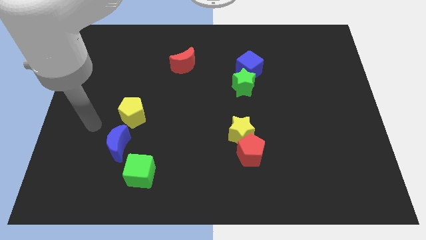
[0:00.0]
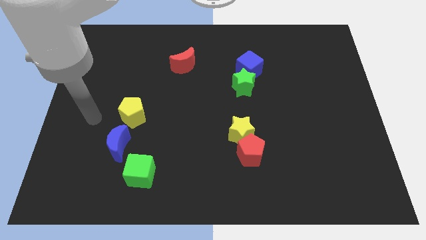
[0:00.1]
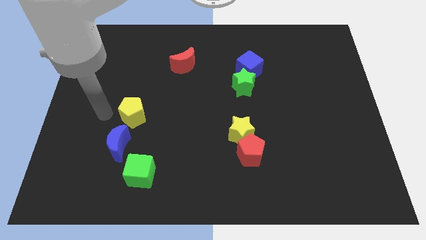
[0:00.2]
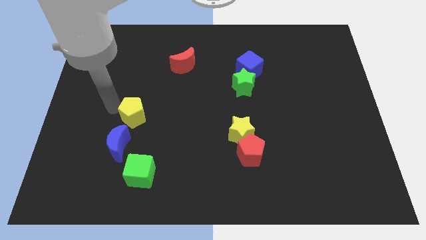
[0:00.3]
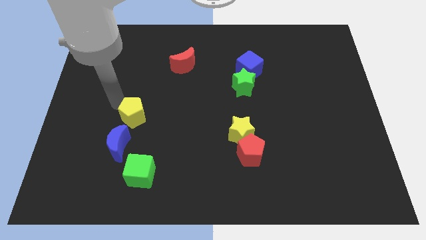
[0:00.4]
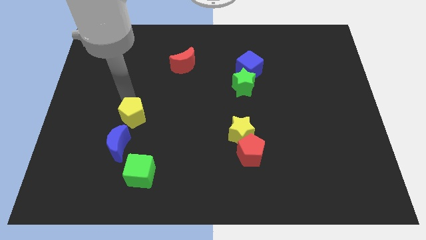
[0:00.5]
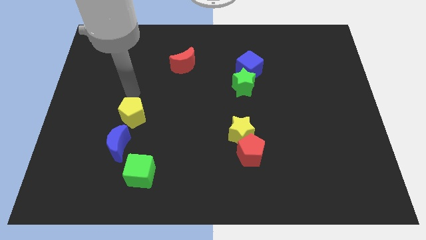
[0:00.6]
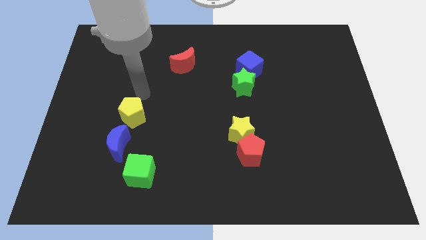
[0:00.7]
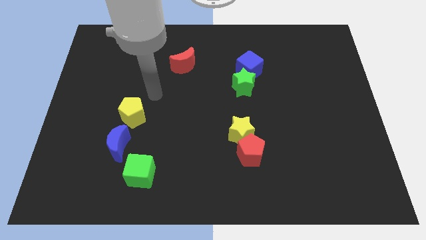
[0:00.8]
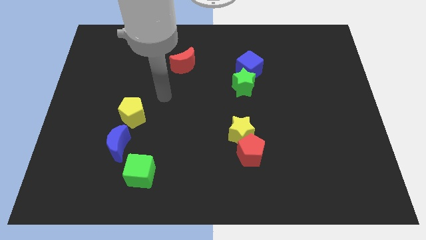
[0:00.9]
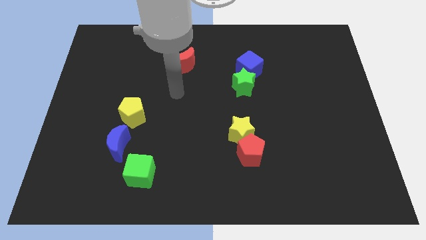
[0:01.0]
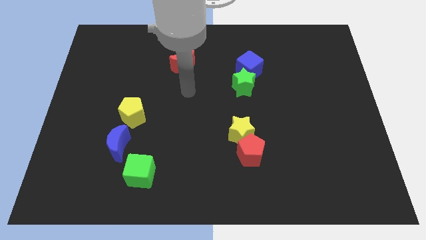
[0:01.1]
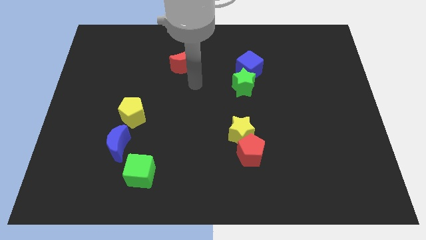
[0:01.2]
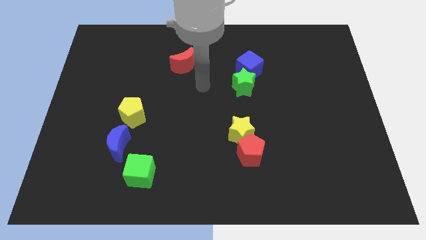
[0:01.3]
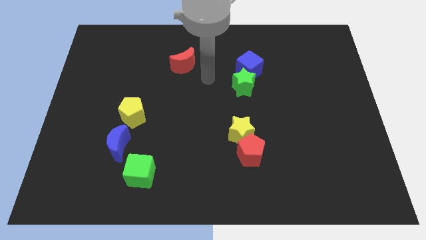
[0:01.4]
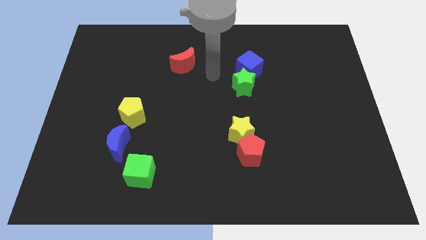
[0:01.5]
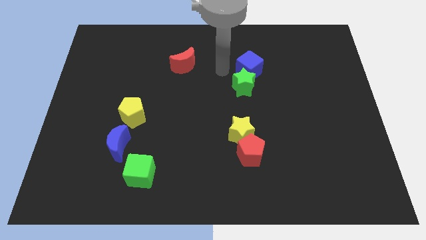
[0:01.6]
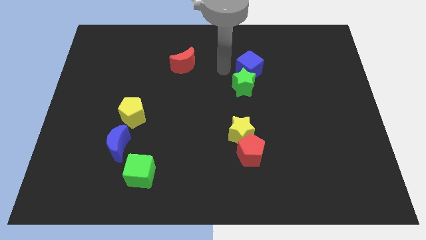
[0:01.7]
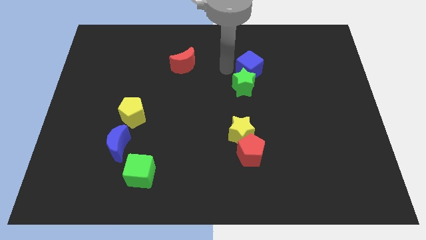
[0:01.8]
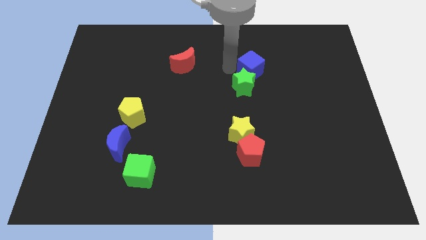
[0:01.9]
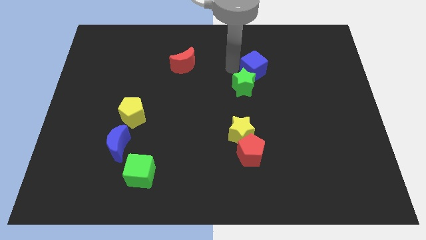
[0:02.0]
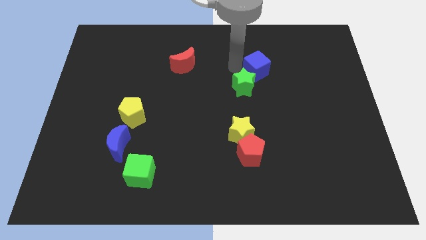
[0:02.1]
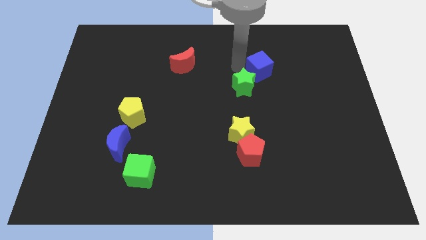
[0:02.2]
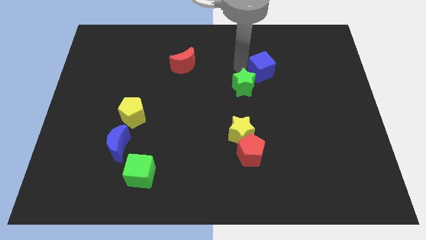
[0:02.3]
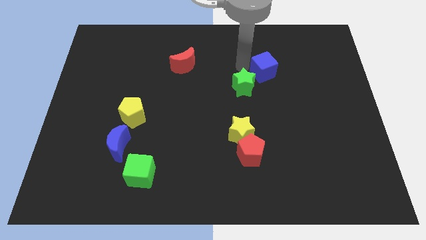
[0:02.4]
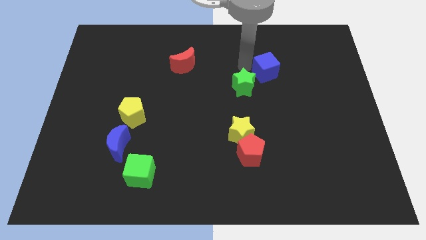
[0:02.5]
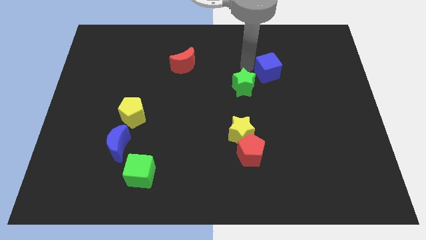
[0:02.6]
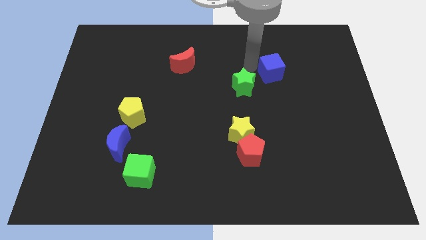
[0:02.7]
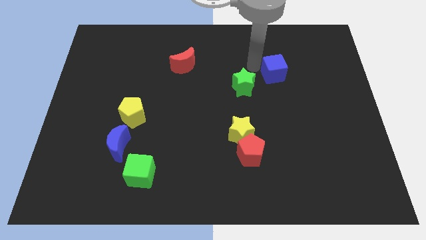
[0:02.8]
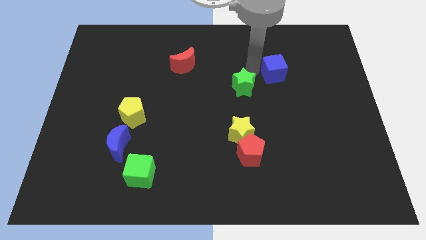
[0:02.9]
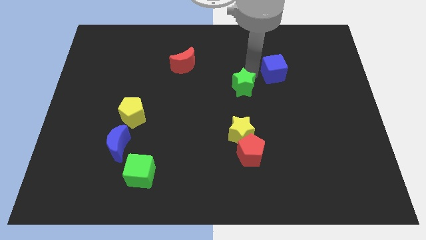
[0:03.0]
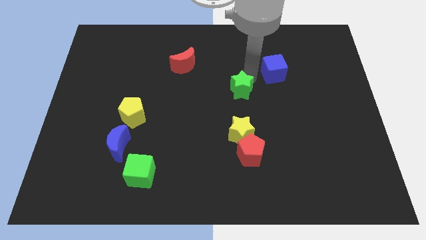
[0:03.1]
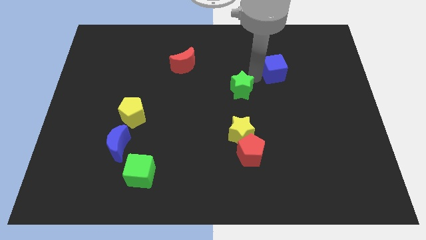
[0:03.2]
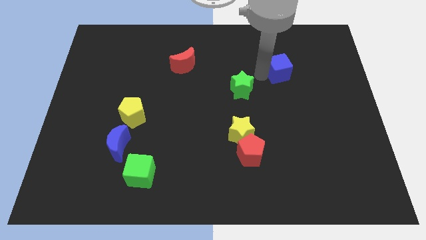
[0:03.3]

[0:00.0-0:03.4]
slightly push the blue cube to the right

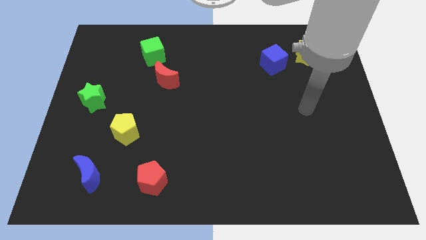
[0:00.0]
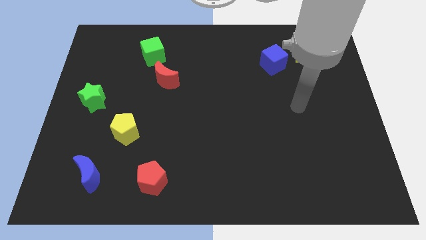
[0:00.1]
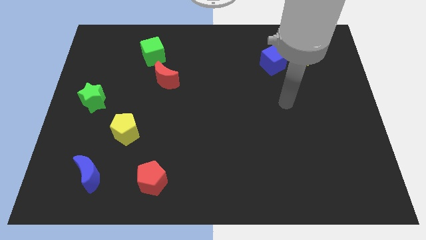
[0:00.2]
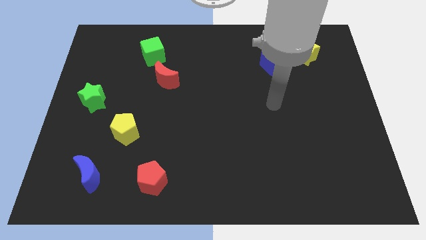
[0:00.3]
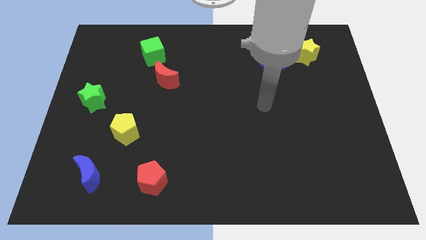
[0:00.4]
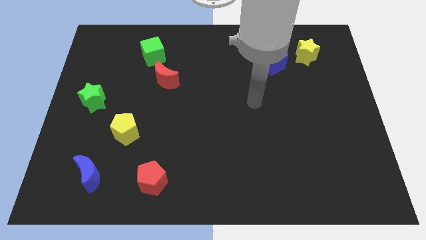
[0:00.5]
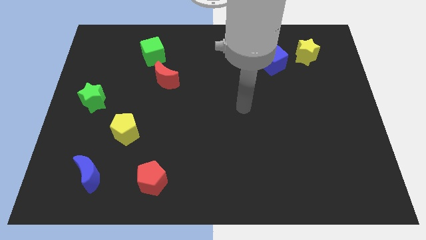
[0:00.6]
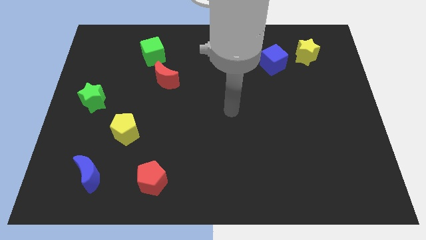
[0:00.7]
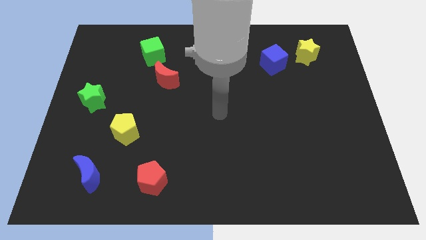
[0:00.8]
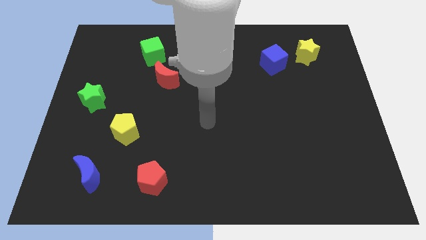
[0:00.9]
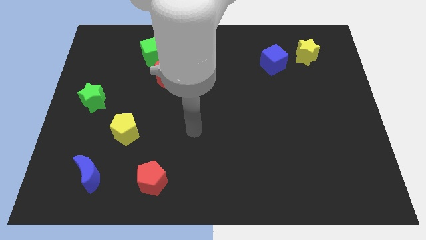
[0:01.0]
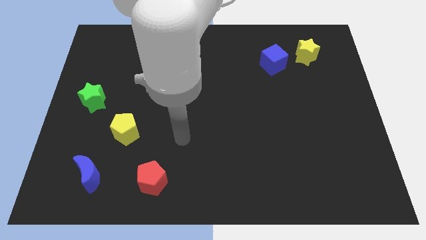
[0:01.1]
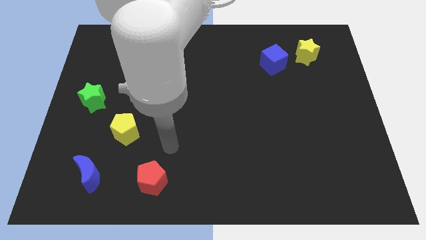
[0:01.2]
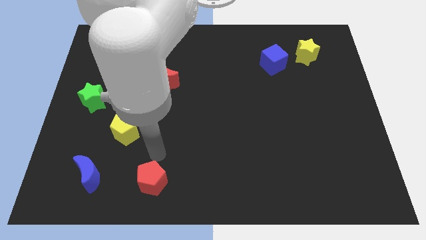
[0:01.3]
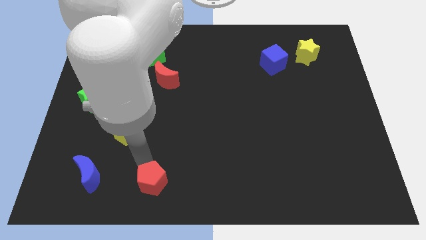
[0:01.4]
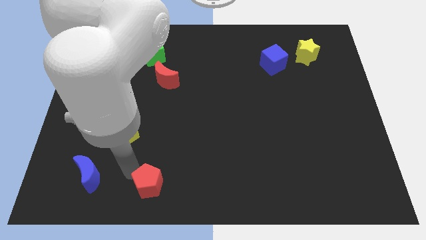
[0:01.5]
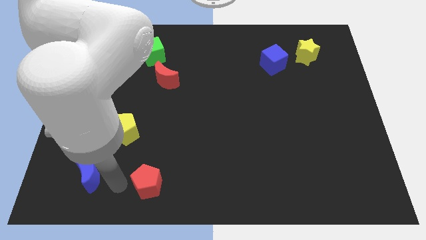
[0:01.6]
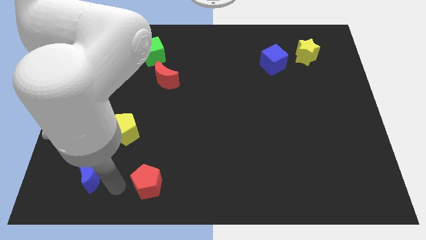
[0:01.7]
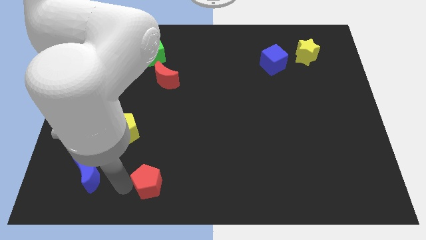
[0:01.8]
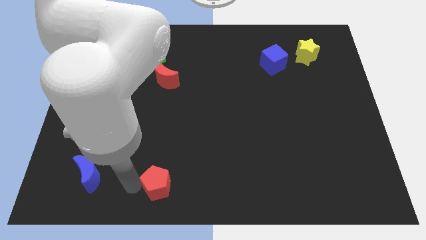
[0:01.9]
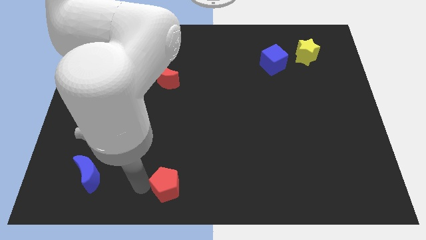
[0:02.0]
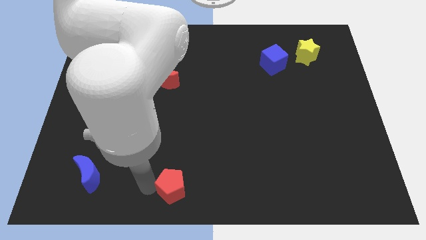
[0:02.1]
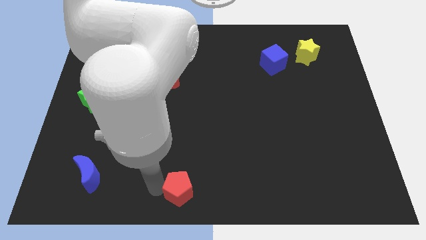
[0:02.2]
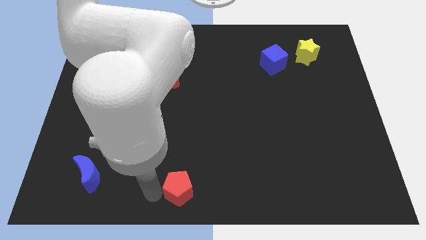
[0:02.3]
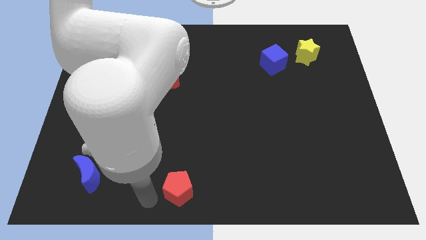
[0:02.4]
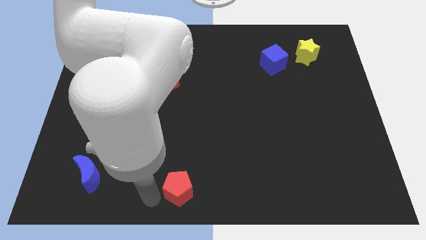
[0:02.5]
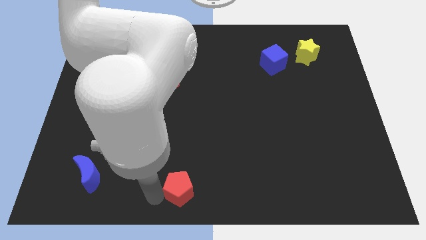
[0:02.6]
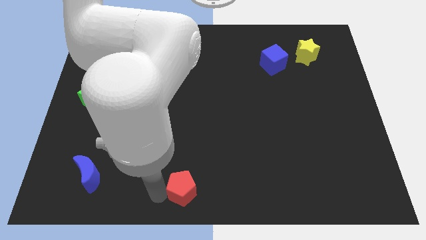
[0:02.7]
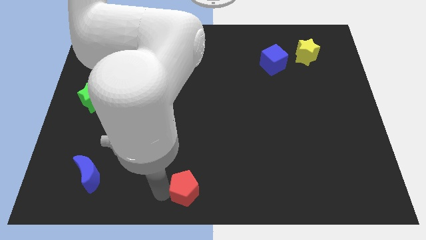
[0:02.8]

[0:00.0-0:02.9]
push the red pentagon right a little

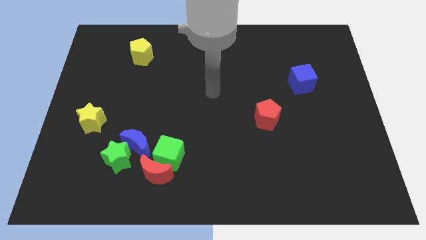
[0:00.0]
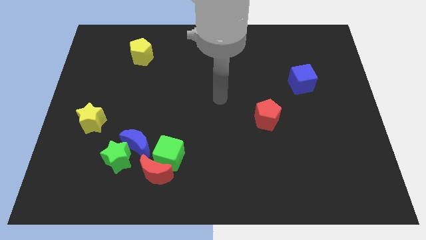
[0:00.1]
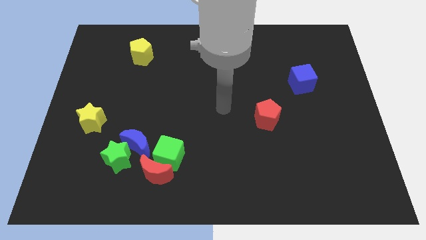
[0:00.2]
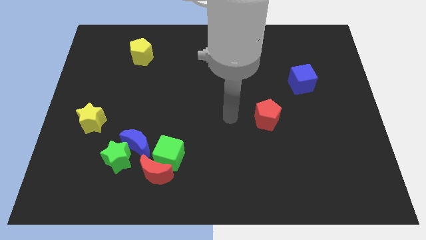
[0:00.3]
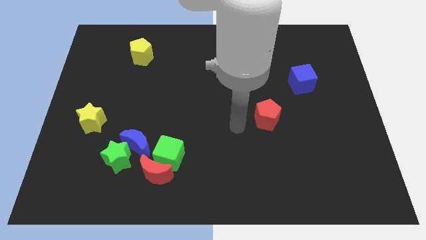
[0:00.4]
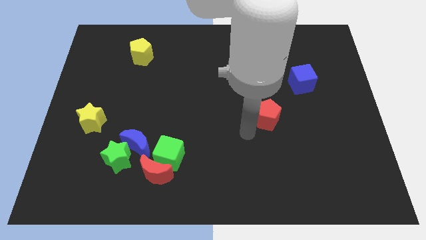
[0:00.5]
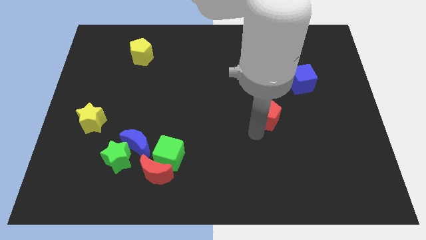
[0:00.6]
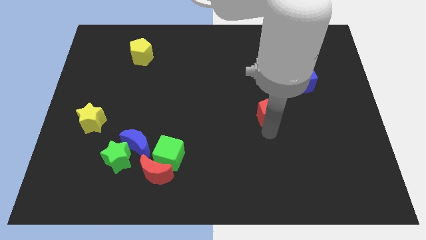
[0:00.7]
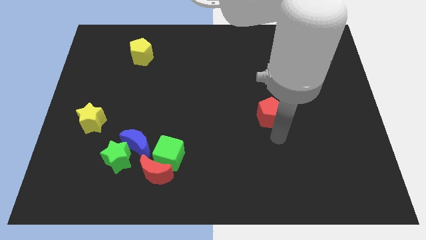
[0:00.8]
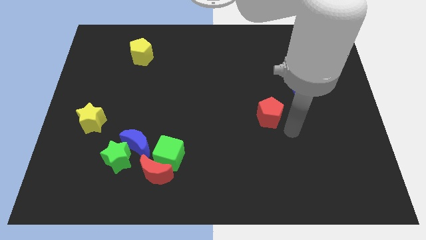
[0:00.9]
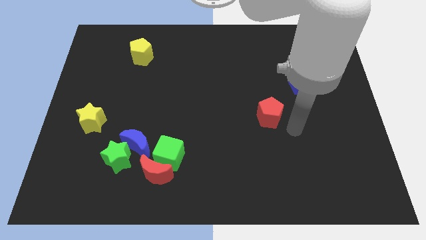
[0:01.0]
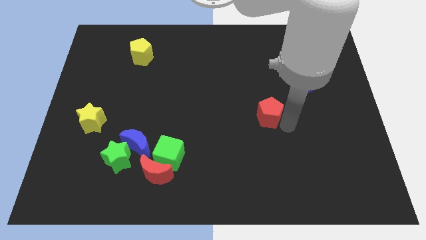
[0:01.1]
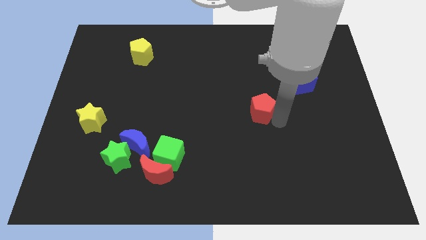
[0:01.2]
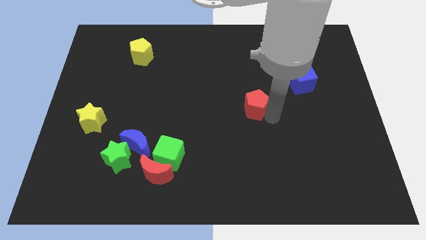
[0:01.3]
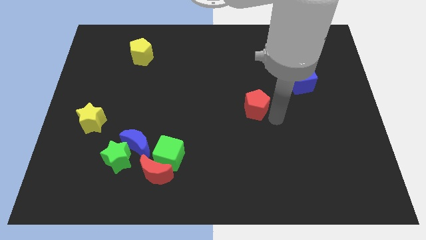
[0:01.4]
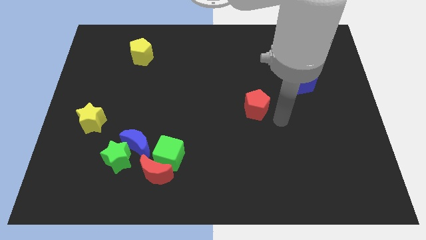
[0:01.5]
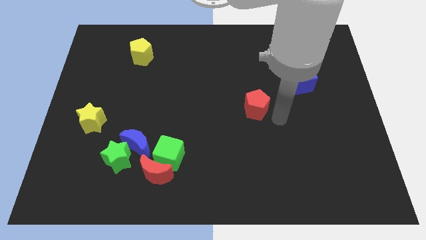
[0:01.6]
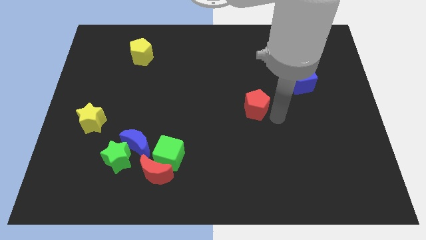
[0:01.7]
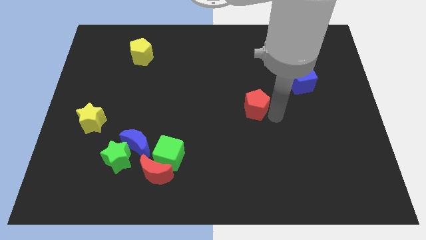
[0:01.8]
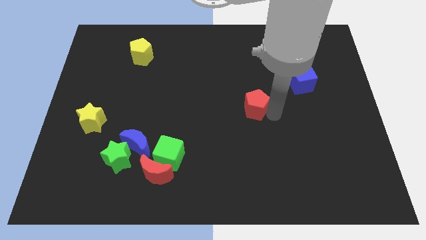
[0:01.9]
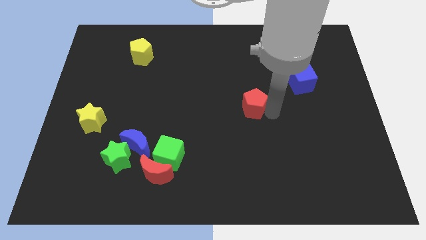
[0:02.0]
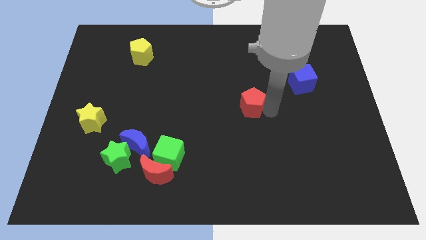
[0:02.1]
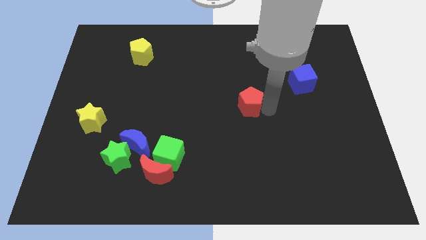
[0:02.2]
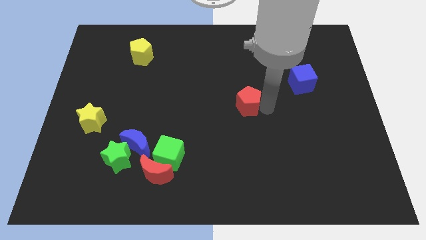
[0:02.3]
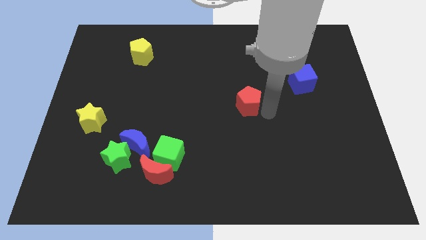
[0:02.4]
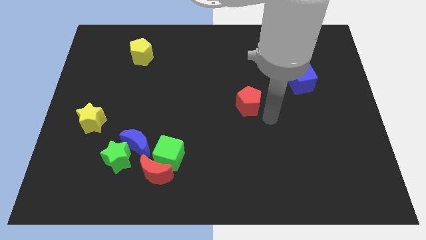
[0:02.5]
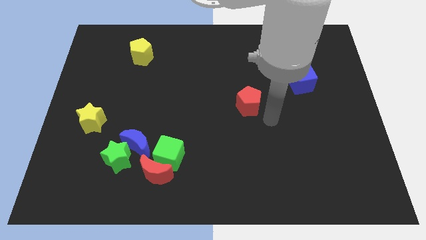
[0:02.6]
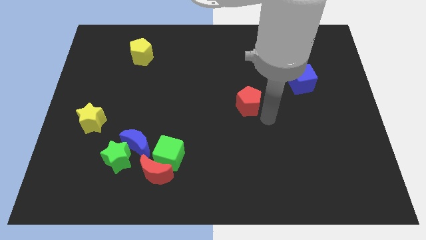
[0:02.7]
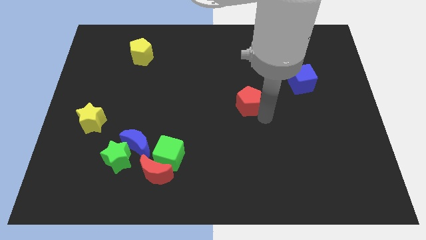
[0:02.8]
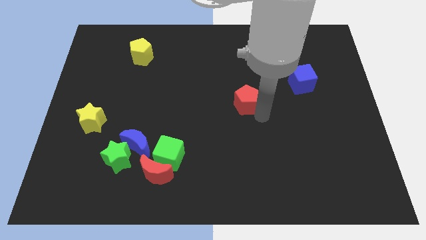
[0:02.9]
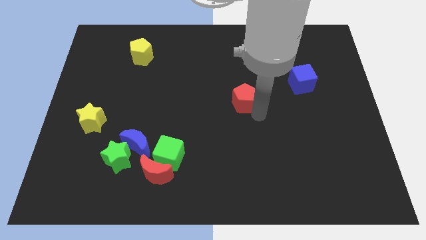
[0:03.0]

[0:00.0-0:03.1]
move the red pentagon a bit up and to the left diagonally
